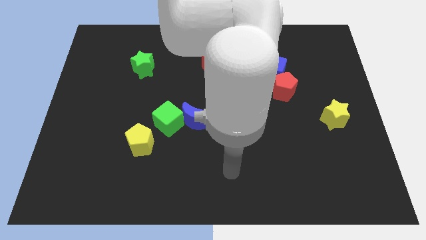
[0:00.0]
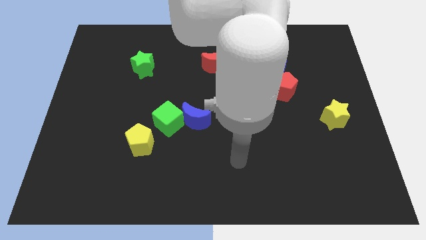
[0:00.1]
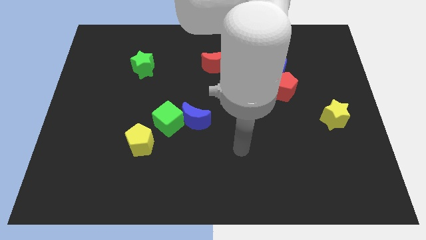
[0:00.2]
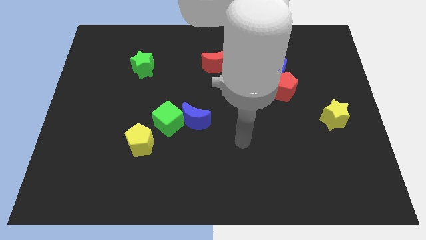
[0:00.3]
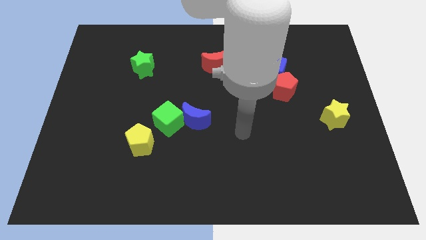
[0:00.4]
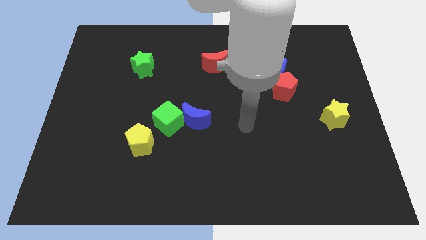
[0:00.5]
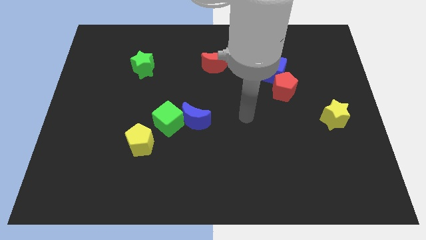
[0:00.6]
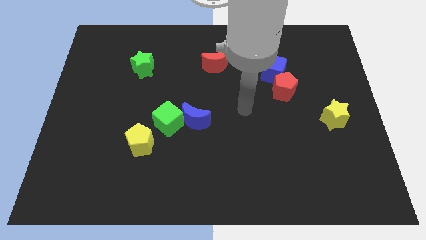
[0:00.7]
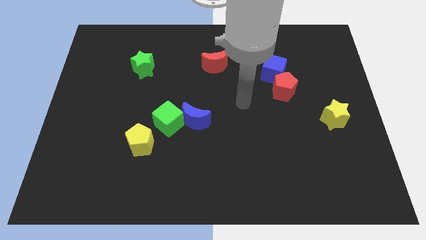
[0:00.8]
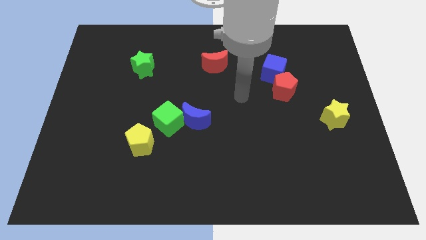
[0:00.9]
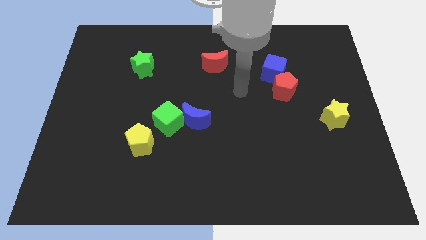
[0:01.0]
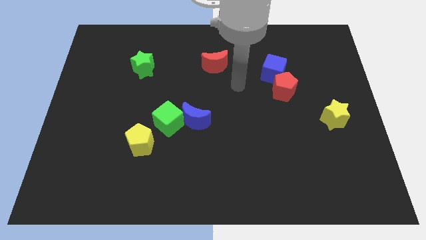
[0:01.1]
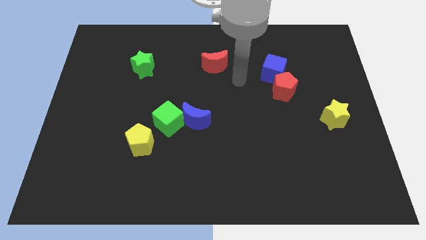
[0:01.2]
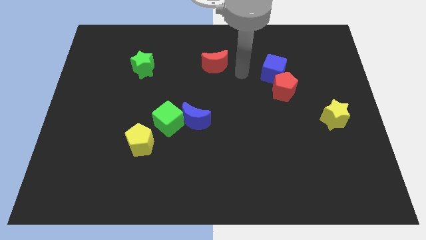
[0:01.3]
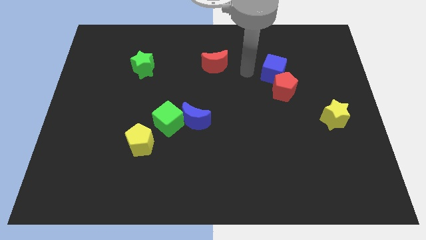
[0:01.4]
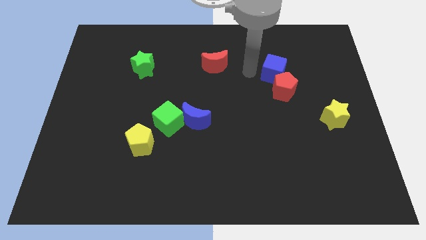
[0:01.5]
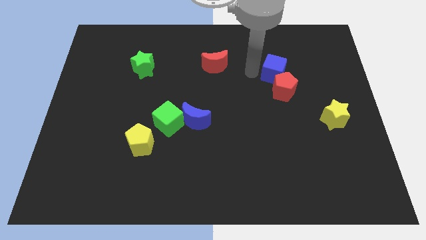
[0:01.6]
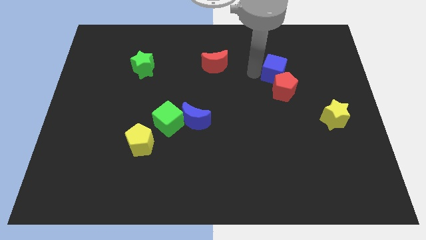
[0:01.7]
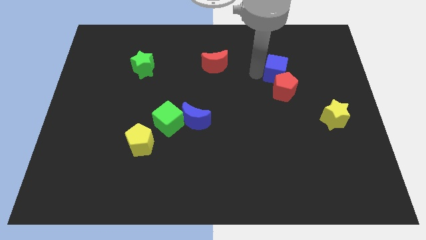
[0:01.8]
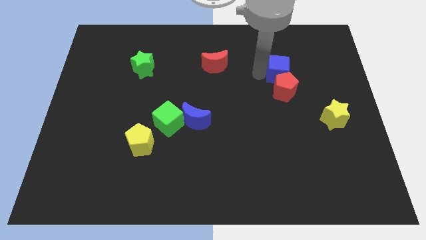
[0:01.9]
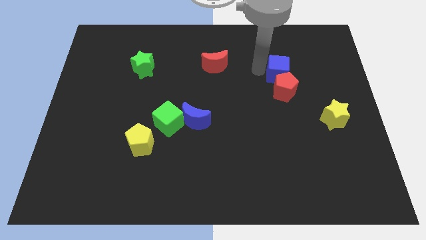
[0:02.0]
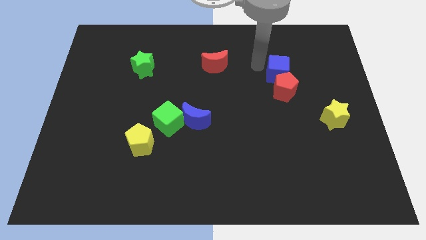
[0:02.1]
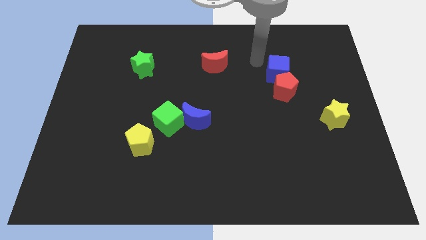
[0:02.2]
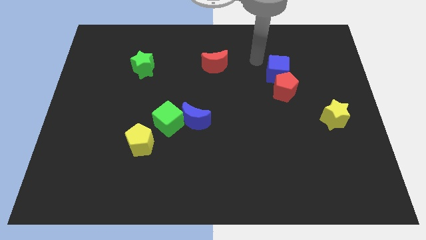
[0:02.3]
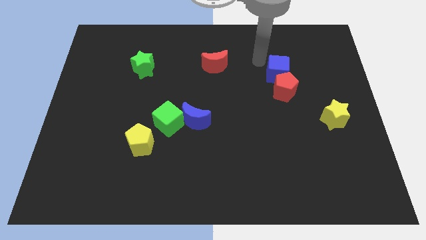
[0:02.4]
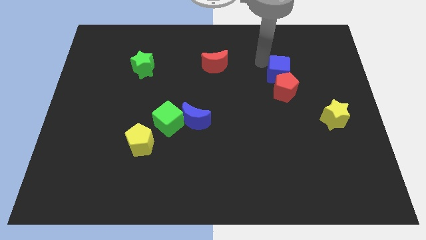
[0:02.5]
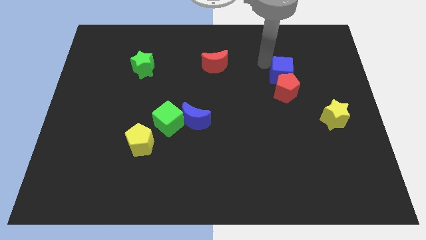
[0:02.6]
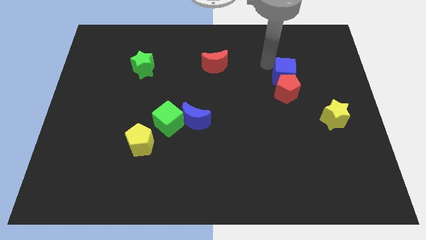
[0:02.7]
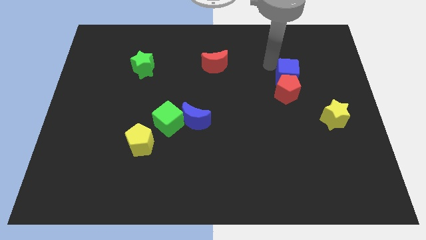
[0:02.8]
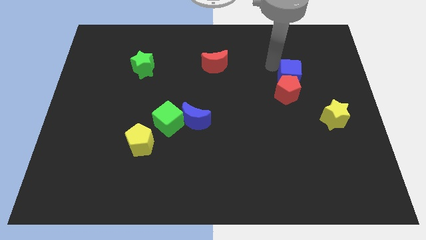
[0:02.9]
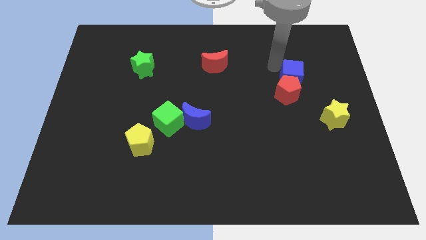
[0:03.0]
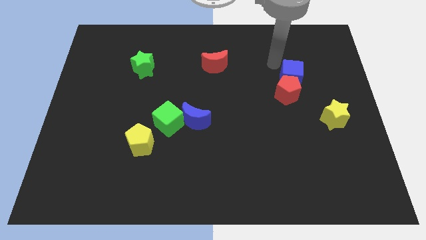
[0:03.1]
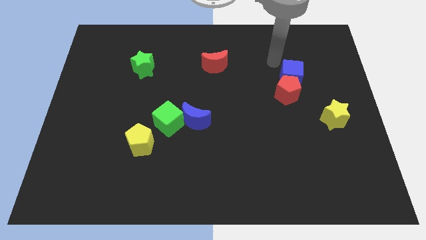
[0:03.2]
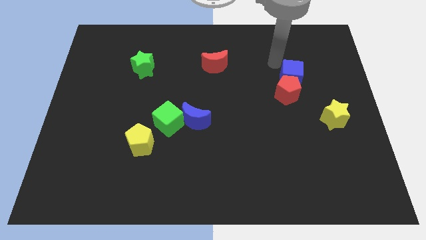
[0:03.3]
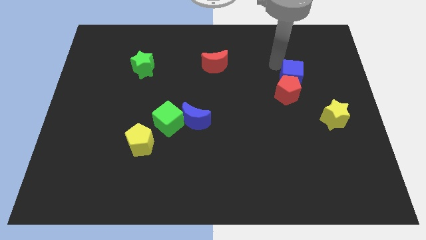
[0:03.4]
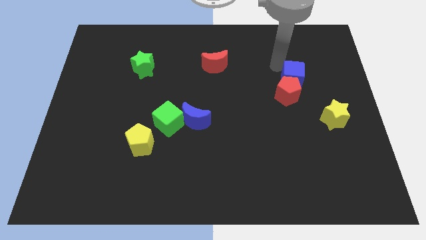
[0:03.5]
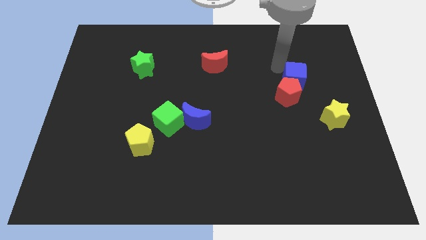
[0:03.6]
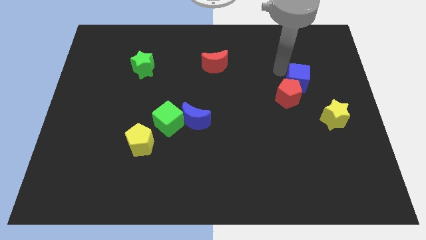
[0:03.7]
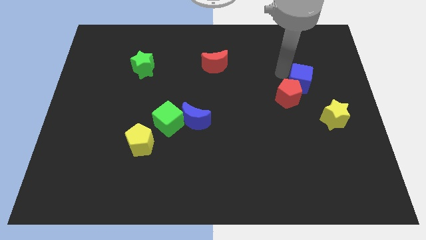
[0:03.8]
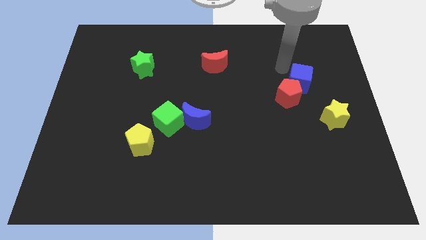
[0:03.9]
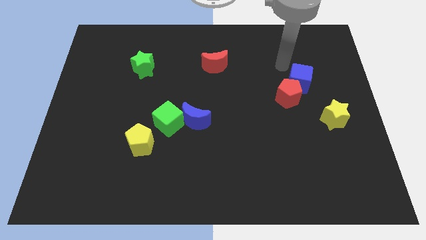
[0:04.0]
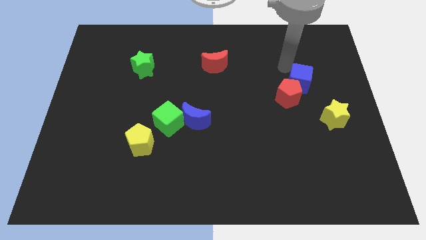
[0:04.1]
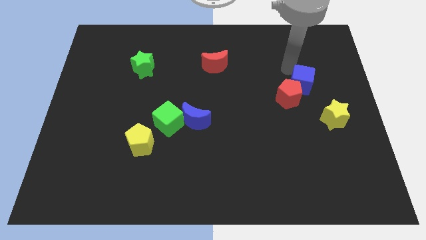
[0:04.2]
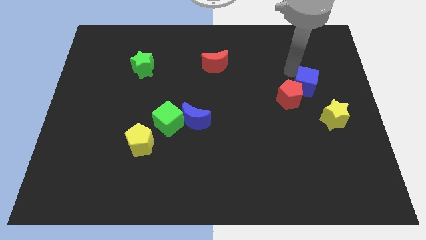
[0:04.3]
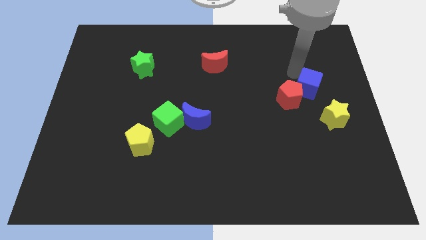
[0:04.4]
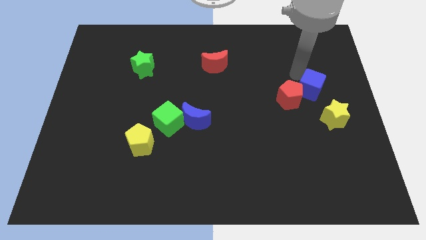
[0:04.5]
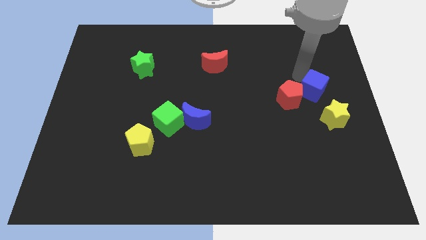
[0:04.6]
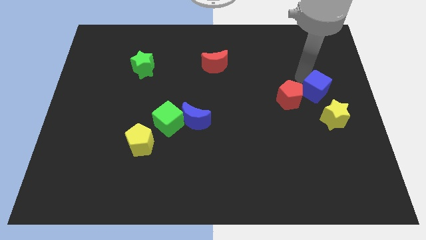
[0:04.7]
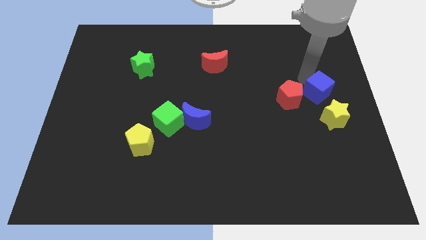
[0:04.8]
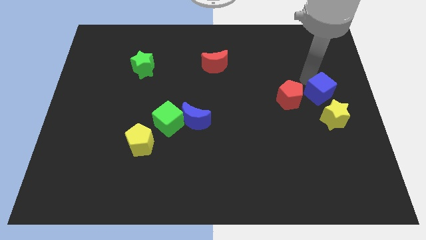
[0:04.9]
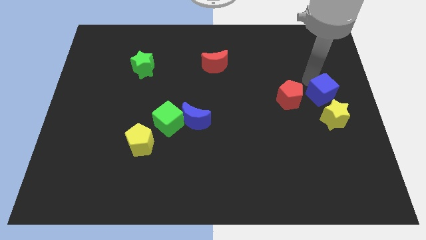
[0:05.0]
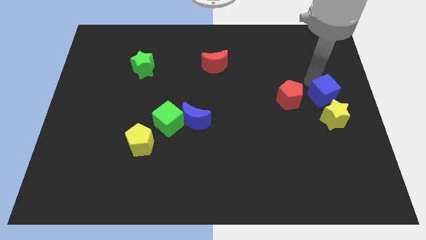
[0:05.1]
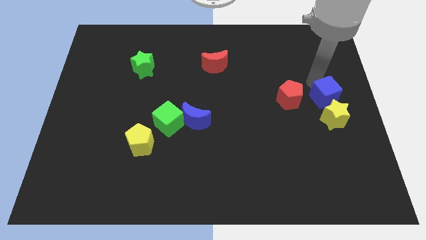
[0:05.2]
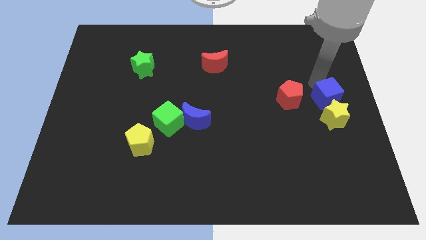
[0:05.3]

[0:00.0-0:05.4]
put the blue cube towards the yellow star

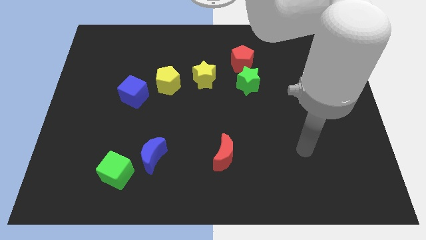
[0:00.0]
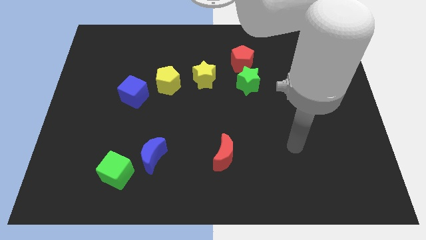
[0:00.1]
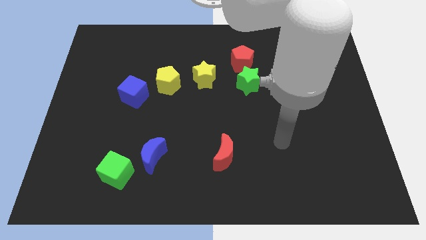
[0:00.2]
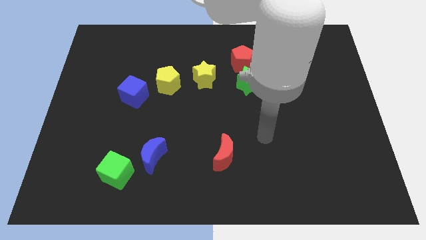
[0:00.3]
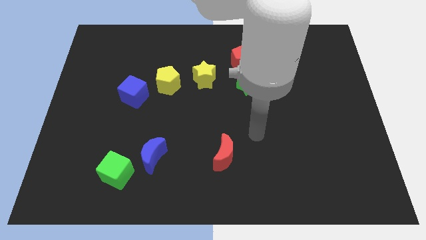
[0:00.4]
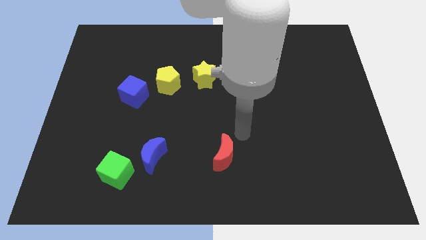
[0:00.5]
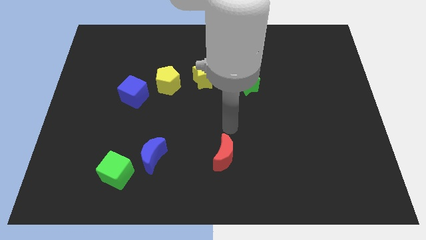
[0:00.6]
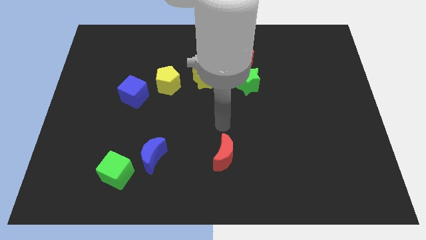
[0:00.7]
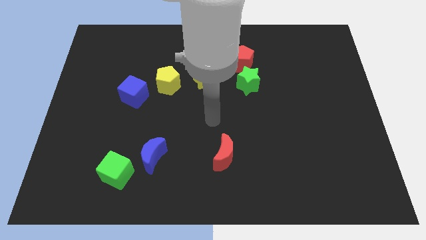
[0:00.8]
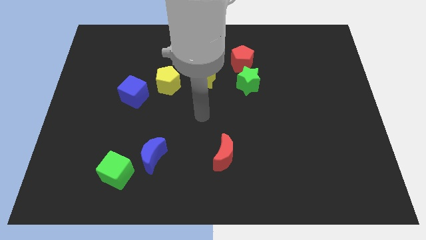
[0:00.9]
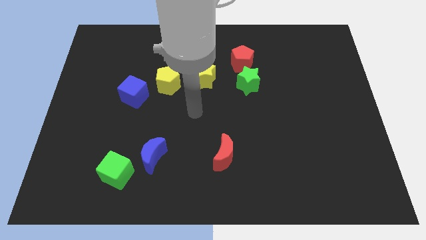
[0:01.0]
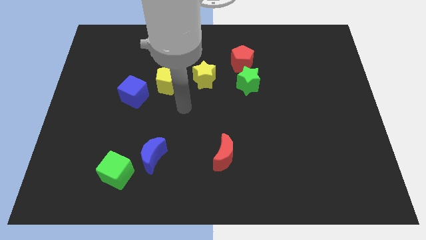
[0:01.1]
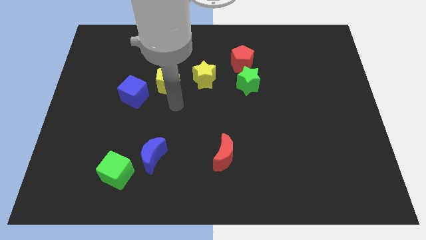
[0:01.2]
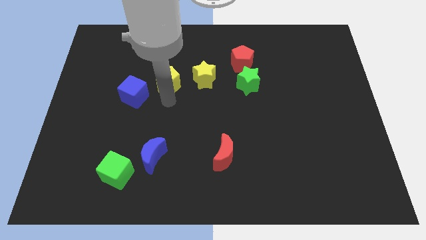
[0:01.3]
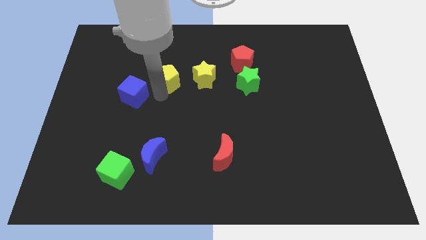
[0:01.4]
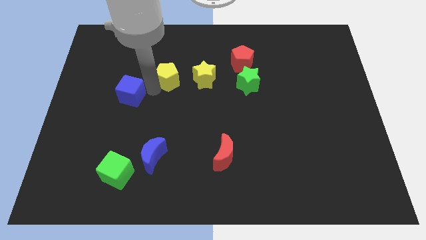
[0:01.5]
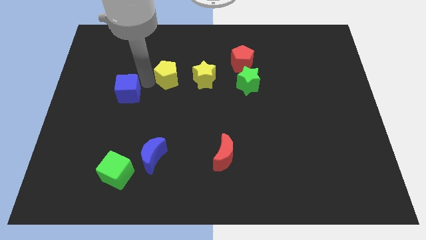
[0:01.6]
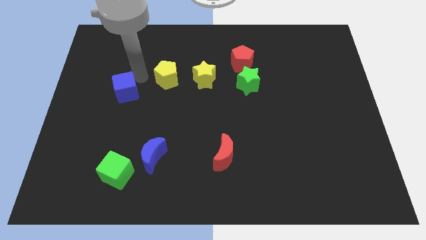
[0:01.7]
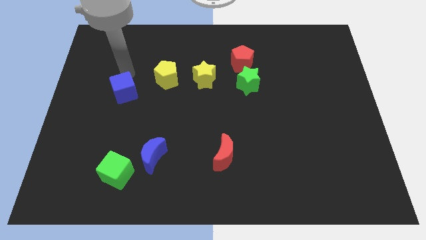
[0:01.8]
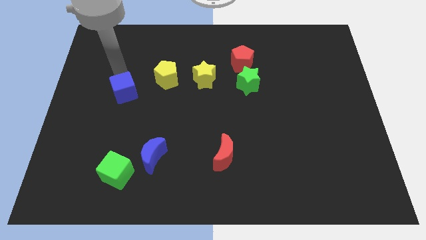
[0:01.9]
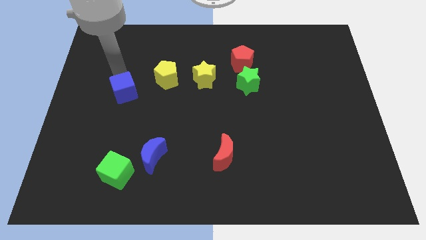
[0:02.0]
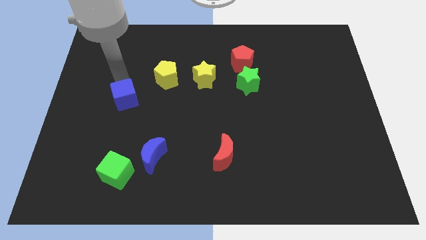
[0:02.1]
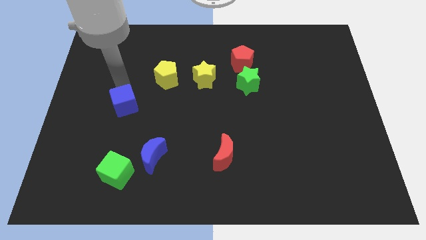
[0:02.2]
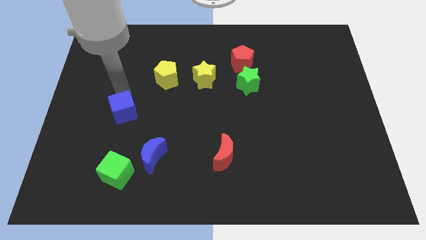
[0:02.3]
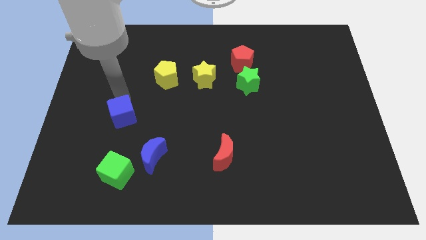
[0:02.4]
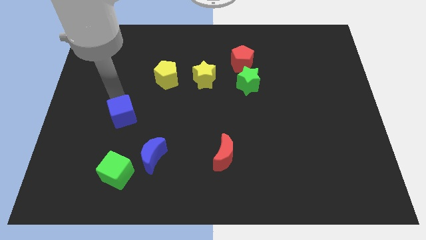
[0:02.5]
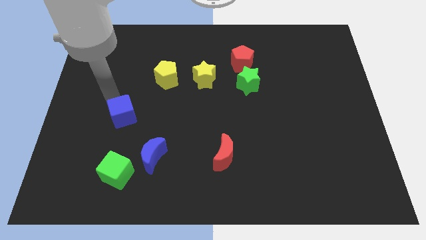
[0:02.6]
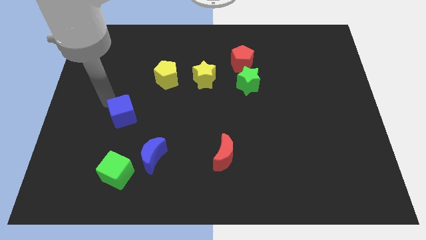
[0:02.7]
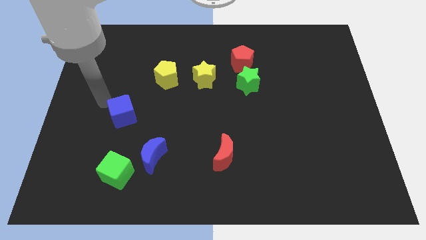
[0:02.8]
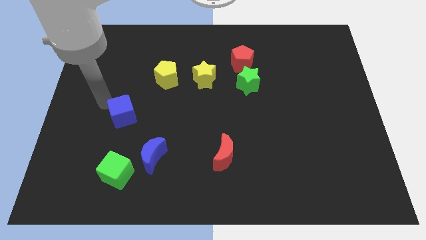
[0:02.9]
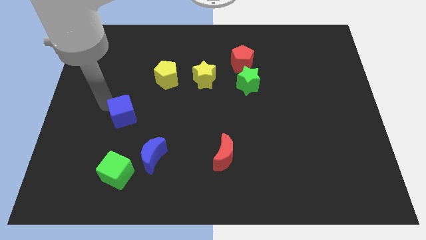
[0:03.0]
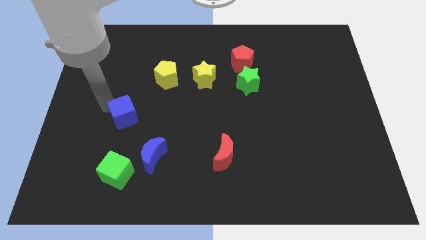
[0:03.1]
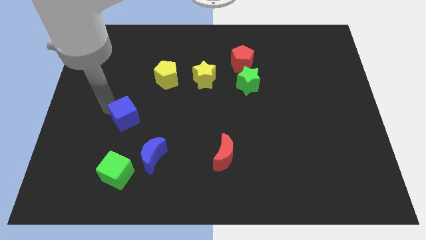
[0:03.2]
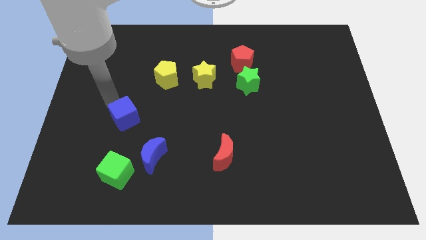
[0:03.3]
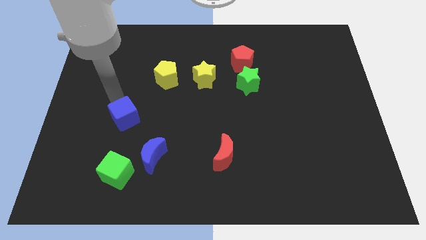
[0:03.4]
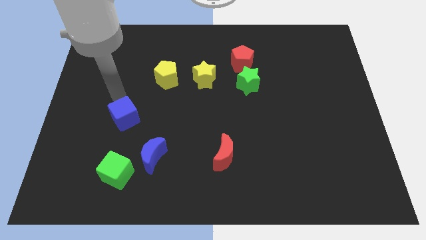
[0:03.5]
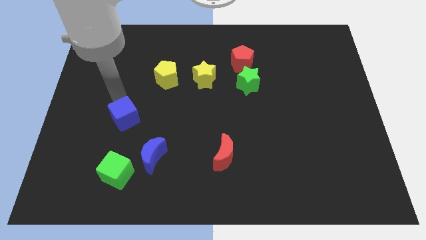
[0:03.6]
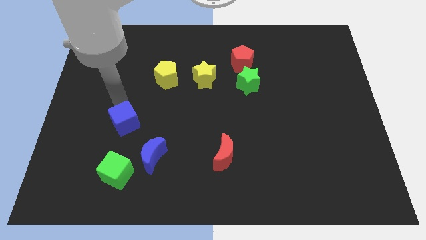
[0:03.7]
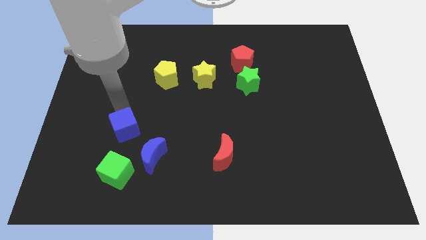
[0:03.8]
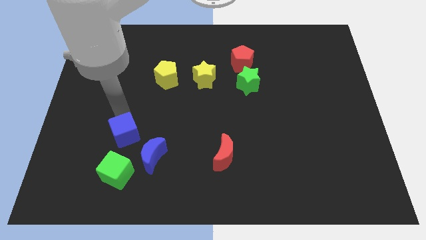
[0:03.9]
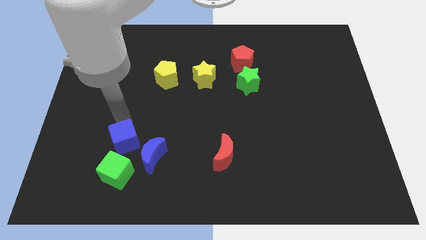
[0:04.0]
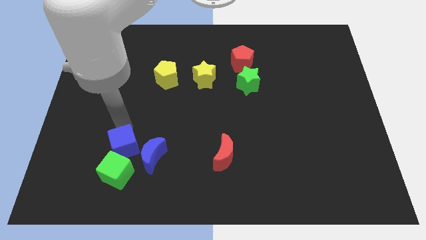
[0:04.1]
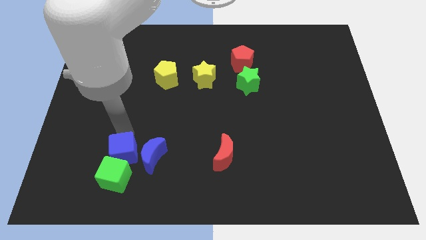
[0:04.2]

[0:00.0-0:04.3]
push the blue cube towards the green cube
